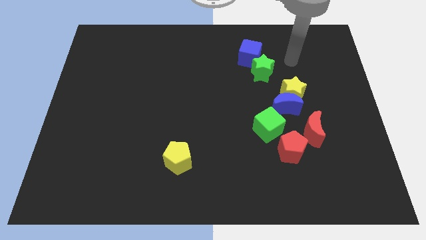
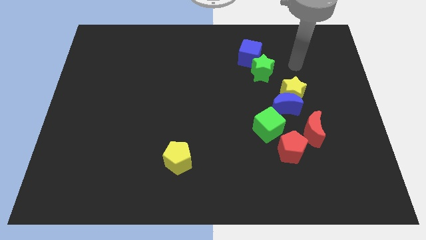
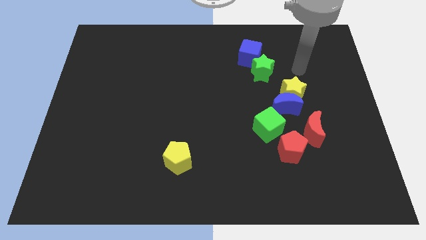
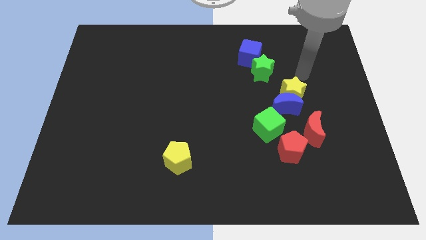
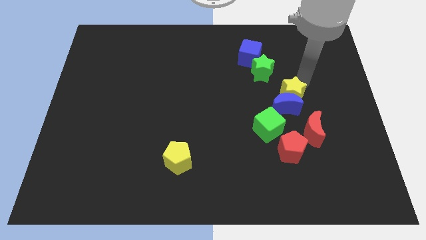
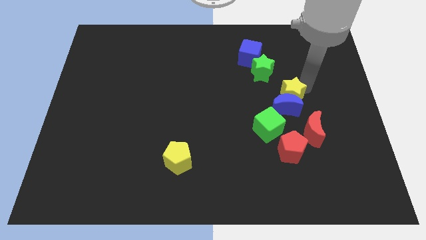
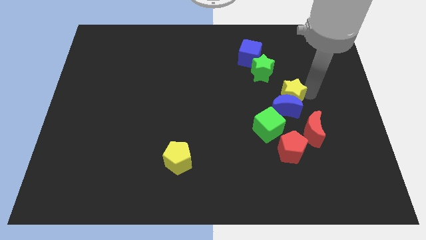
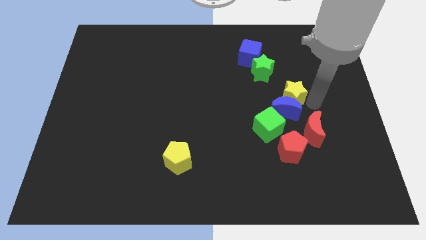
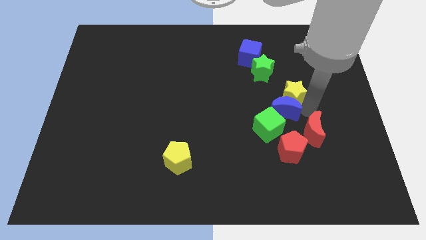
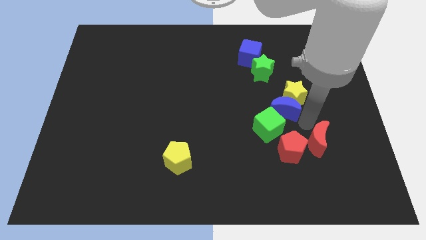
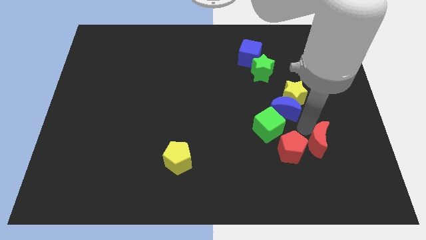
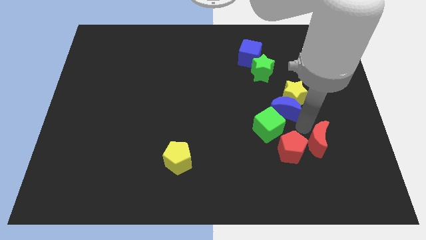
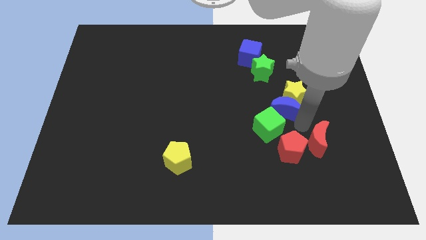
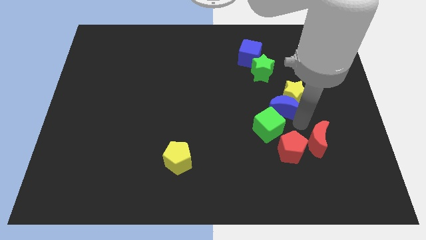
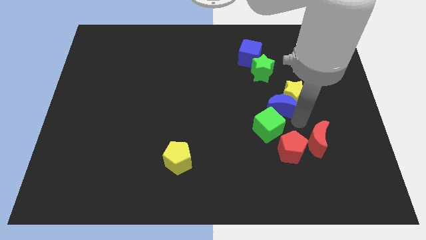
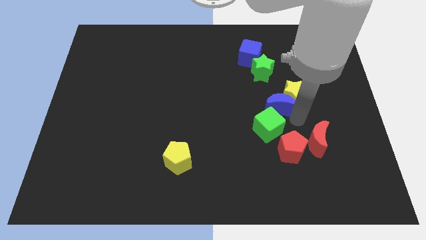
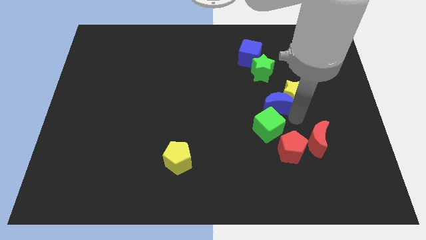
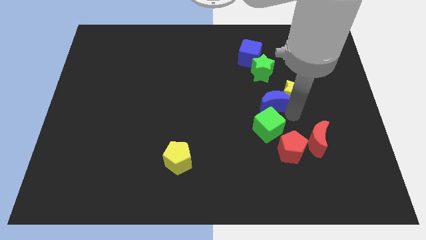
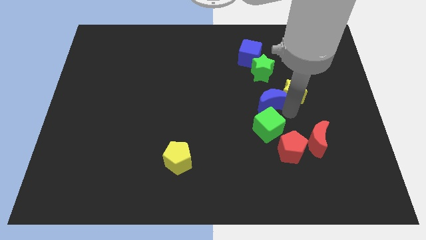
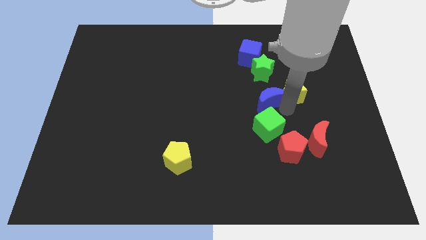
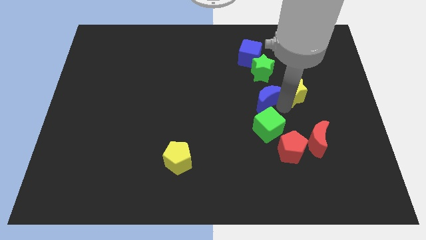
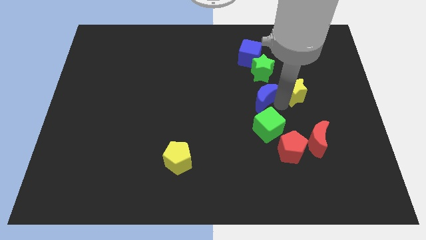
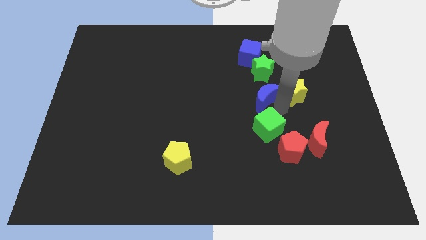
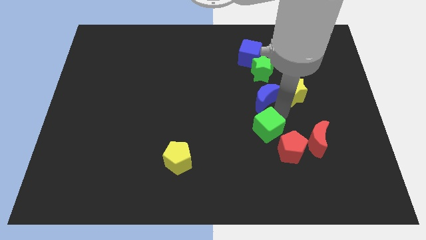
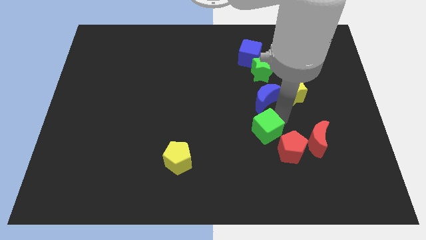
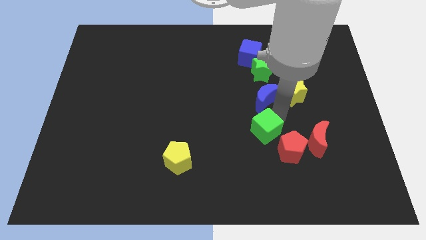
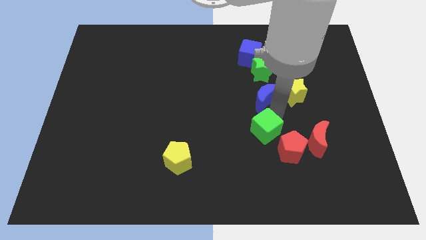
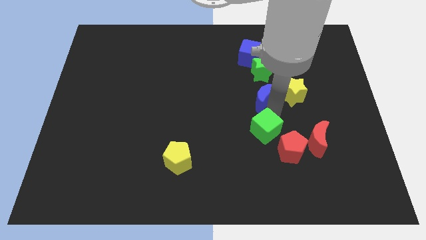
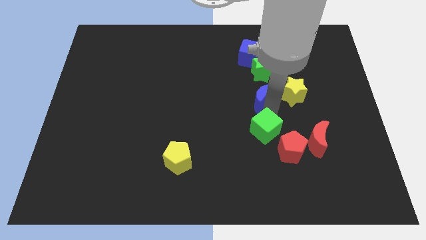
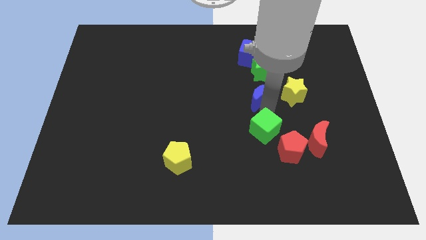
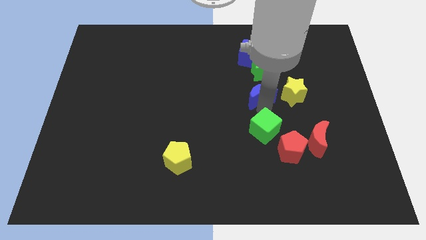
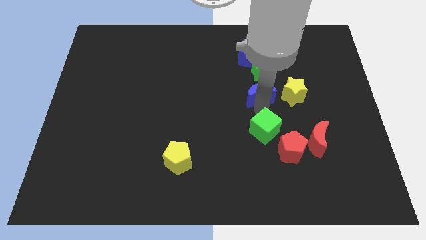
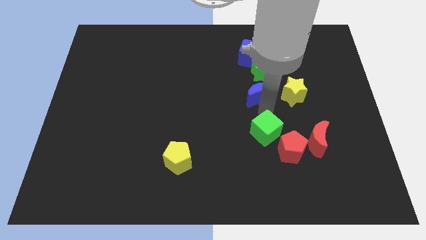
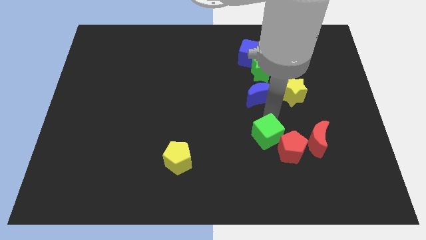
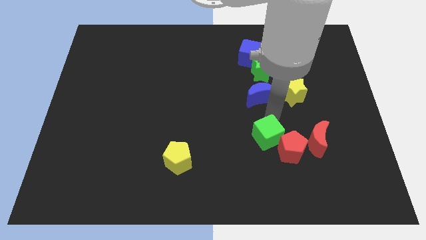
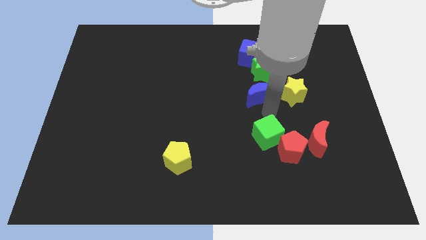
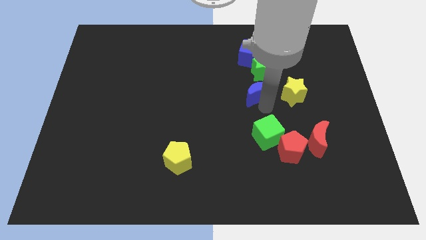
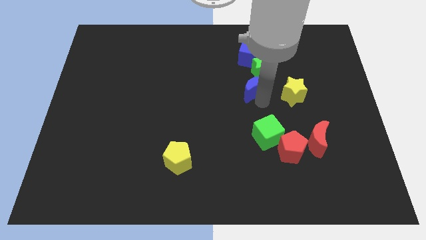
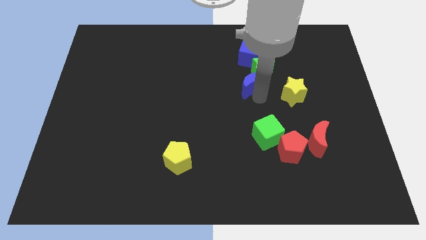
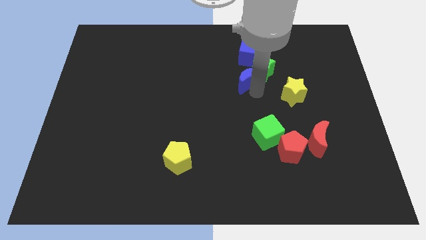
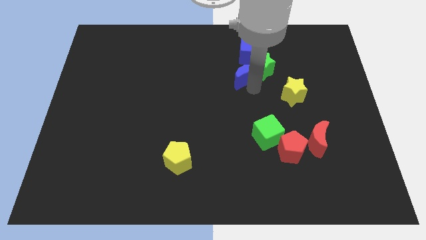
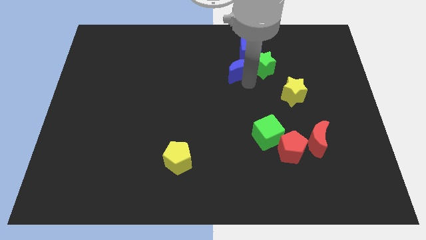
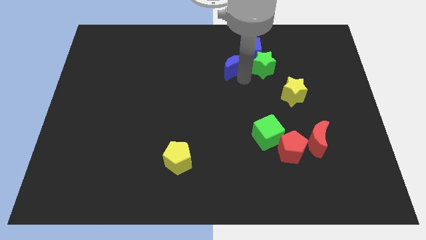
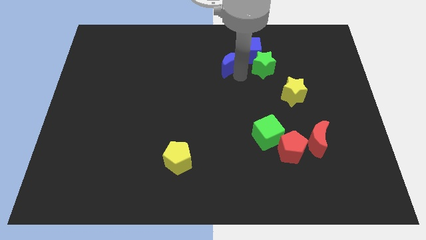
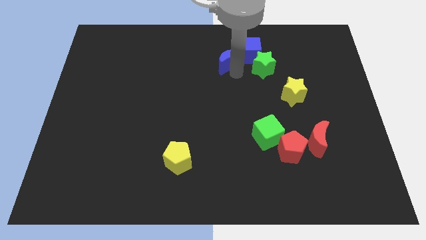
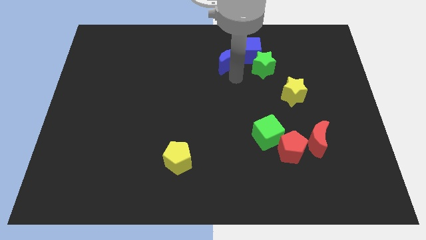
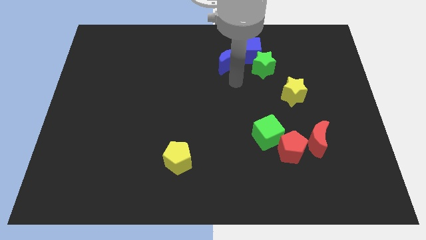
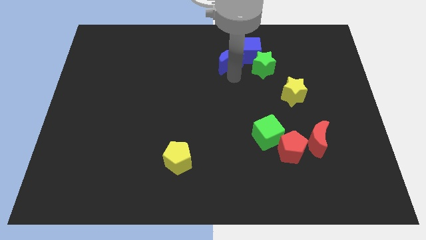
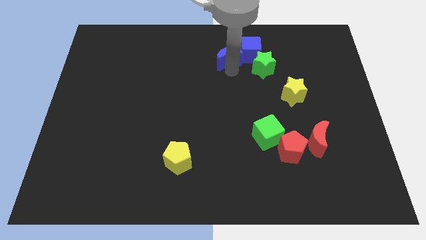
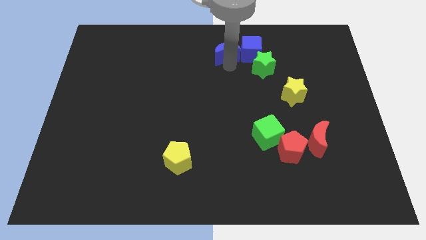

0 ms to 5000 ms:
push the blue moon to the towards your base

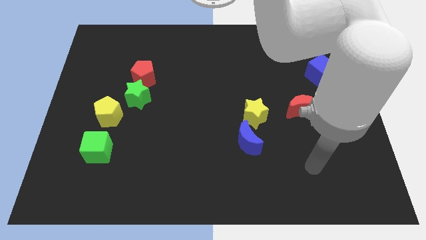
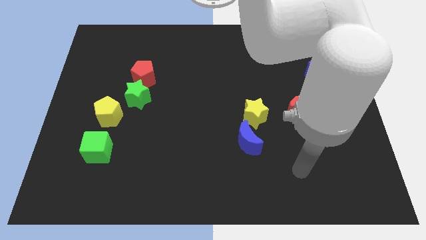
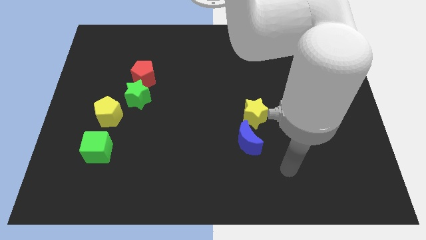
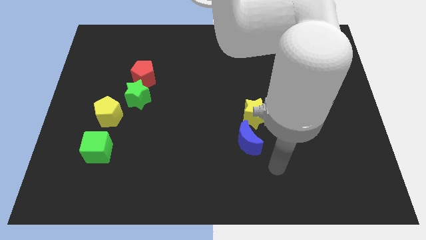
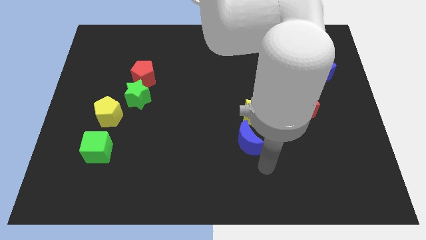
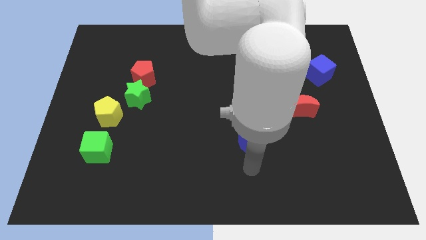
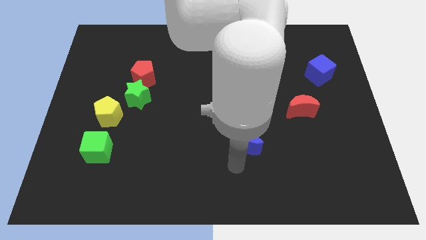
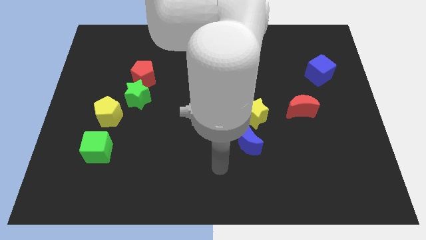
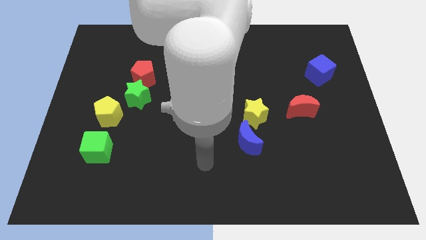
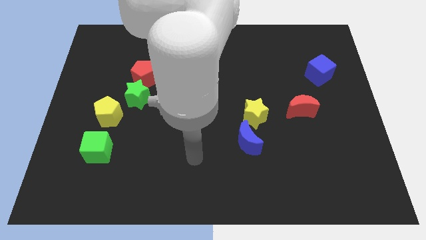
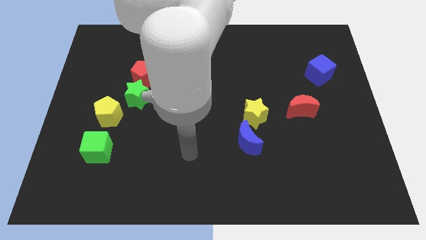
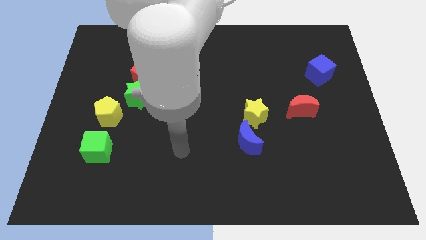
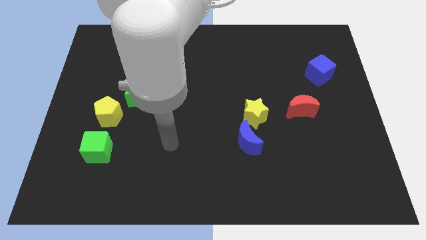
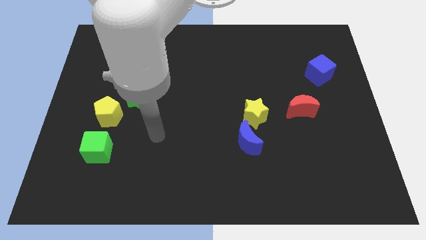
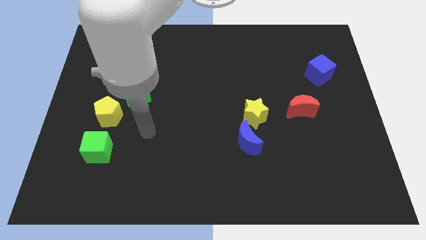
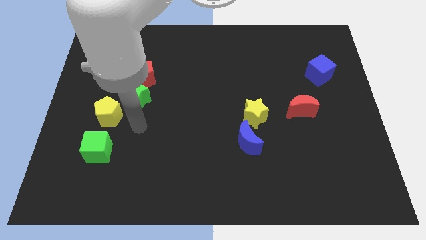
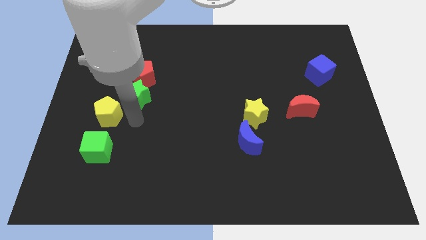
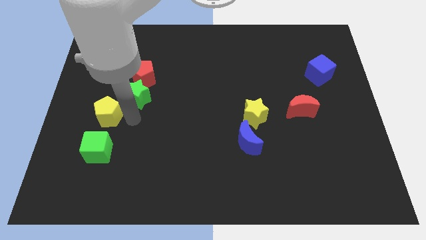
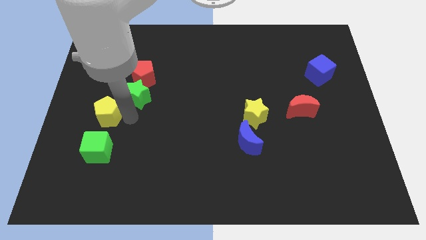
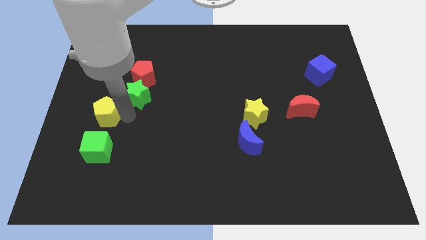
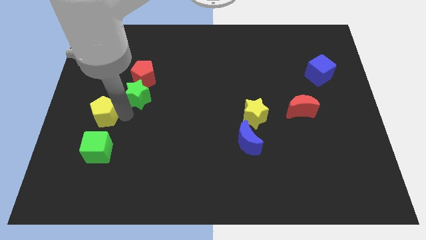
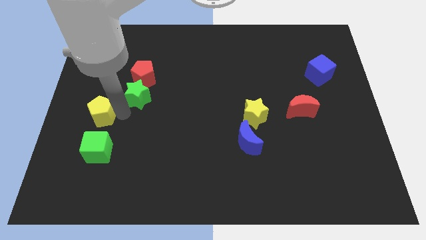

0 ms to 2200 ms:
slide the yellow pentagon to the left side of the board

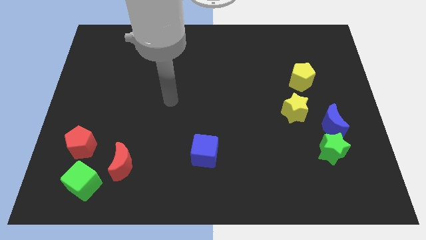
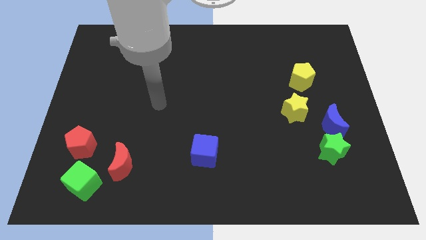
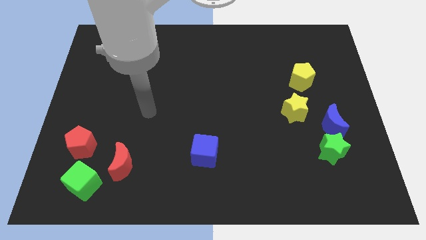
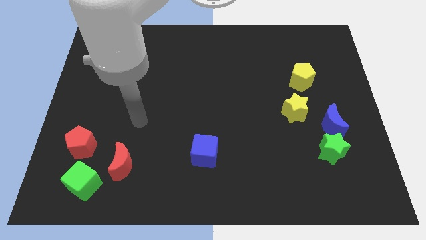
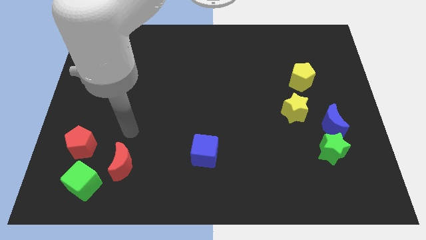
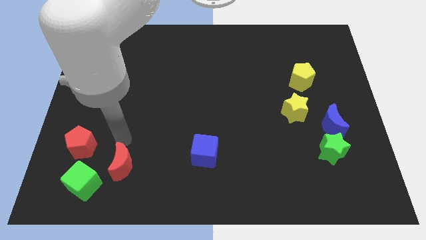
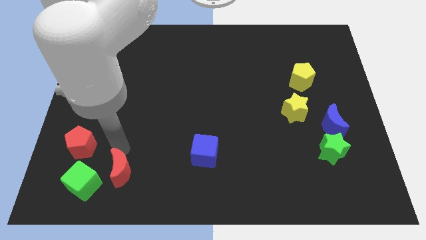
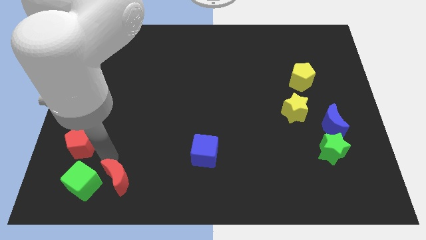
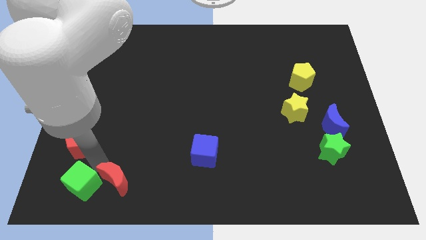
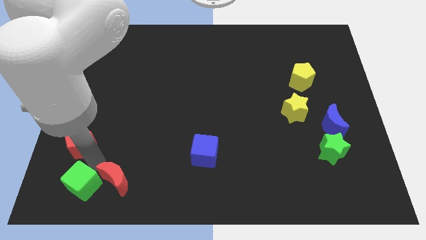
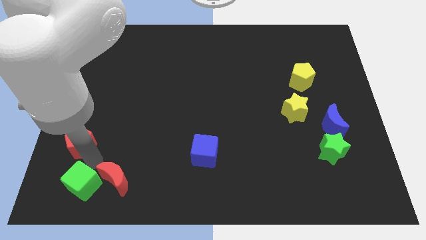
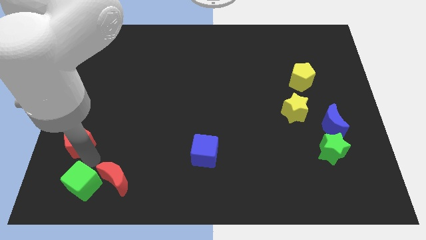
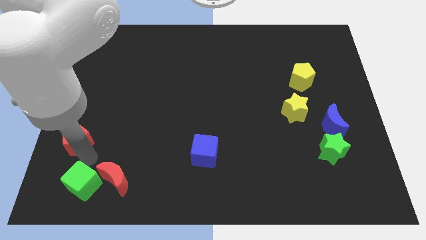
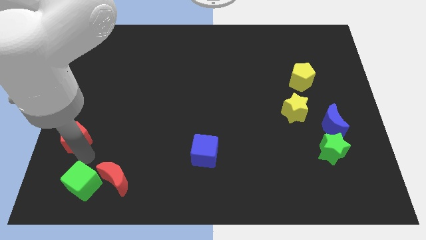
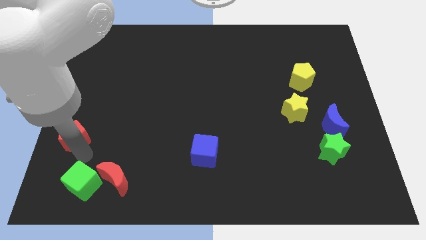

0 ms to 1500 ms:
slide the red pentagon to the left side of the board
